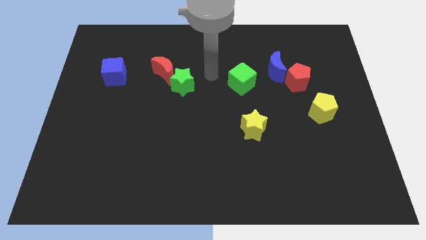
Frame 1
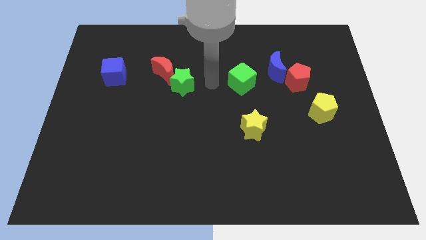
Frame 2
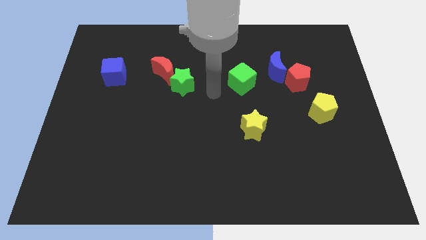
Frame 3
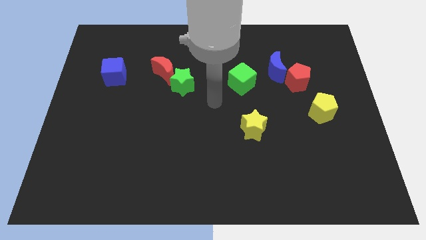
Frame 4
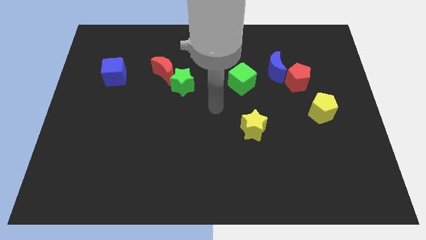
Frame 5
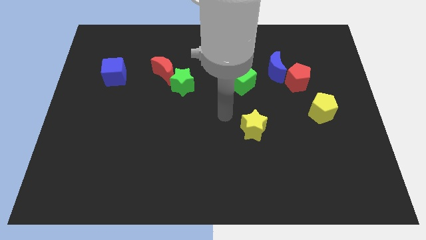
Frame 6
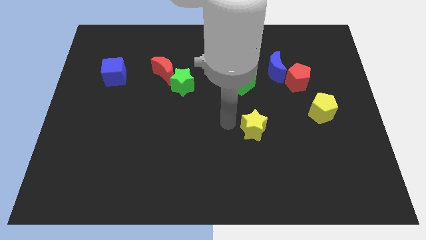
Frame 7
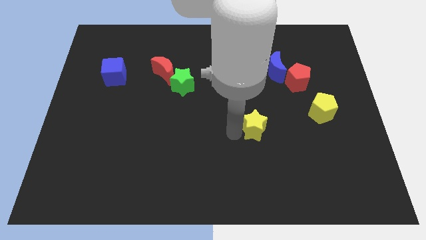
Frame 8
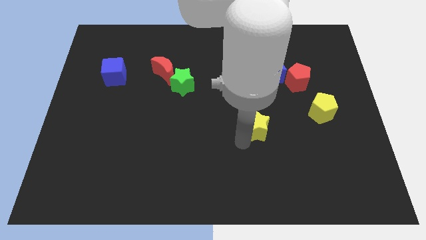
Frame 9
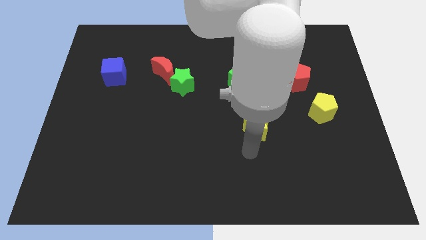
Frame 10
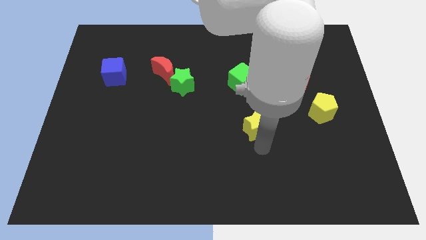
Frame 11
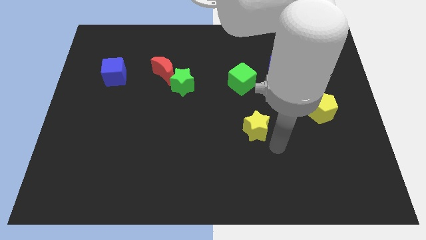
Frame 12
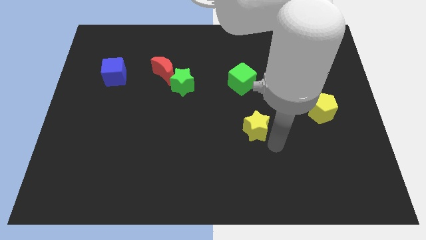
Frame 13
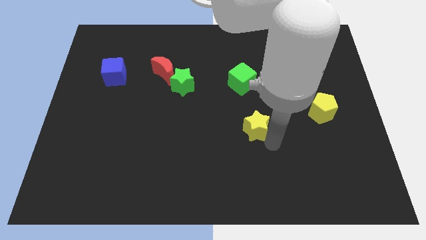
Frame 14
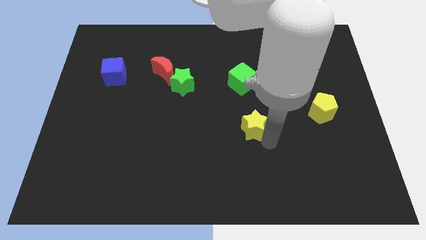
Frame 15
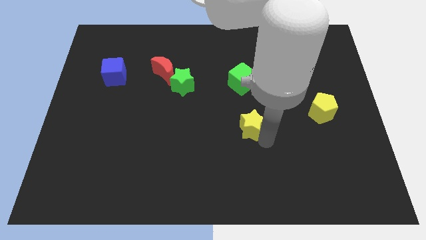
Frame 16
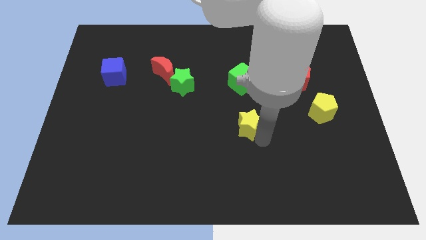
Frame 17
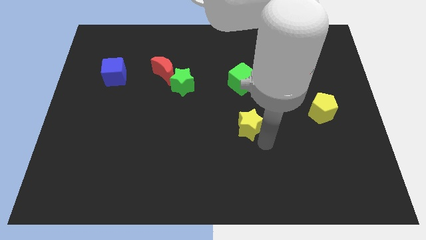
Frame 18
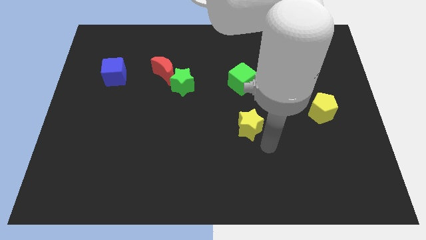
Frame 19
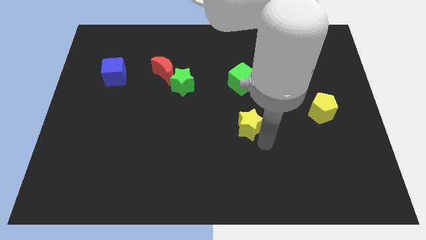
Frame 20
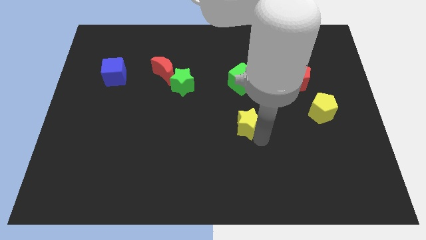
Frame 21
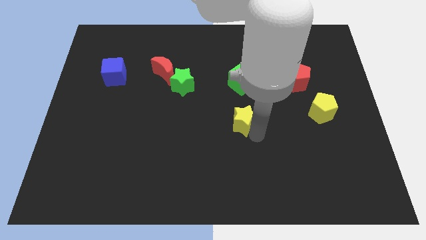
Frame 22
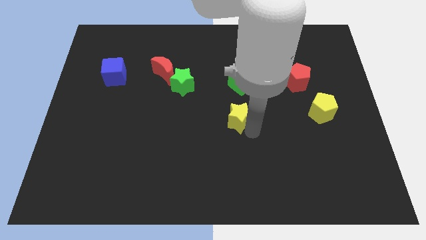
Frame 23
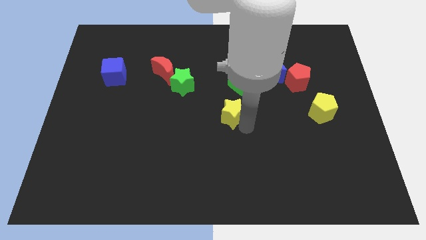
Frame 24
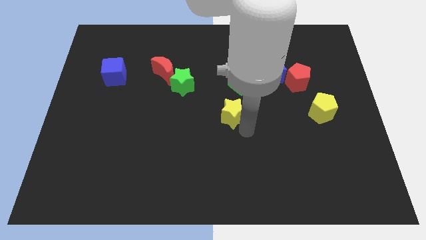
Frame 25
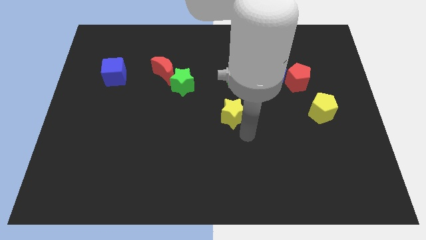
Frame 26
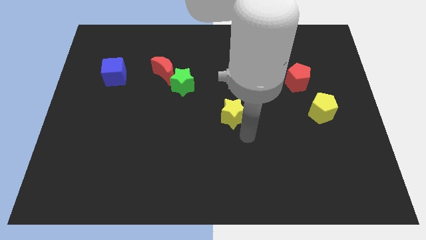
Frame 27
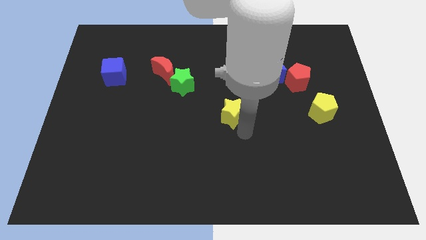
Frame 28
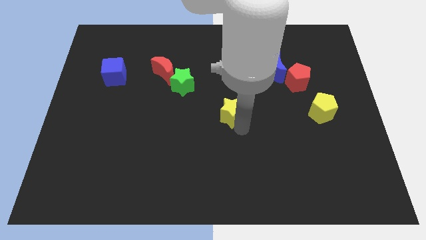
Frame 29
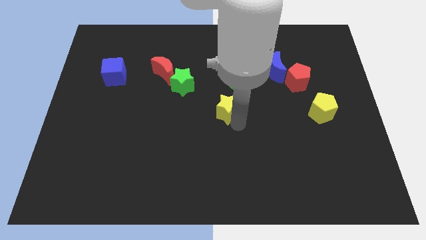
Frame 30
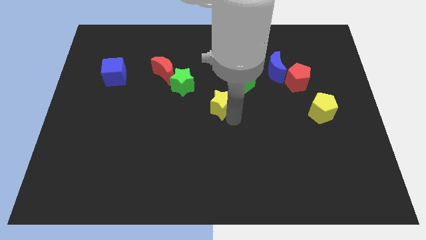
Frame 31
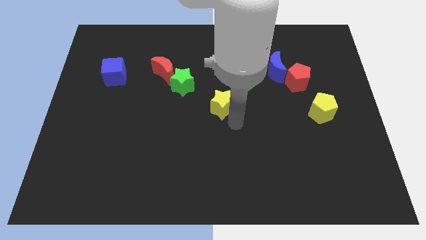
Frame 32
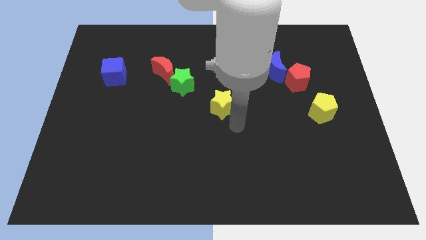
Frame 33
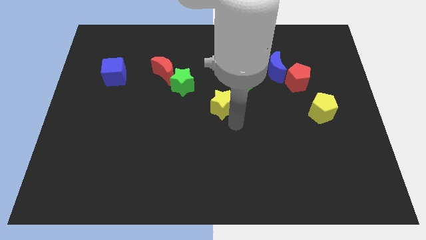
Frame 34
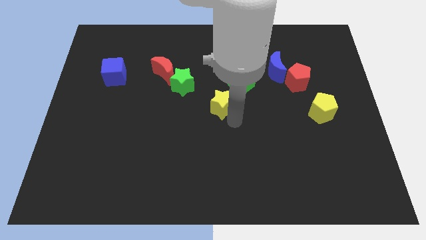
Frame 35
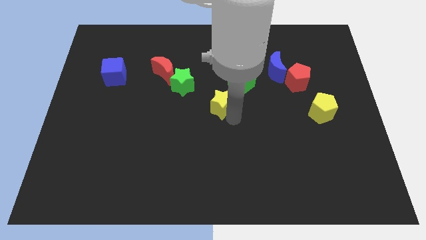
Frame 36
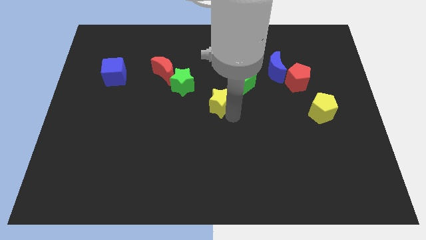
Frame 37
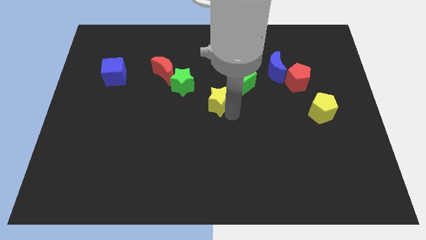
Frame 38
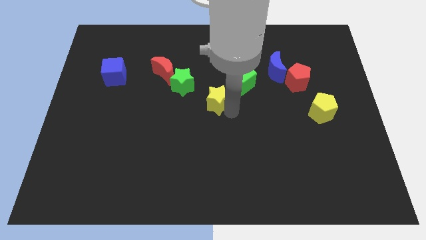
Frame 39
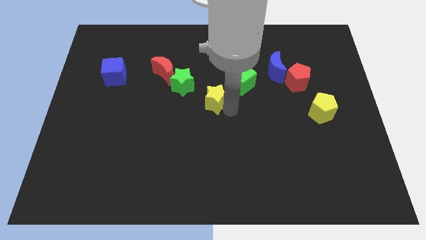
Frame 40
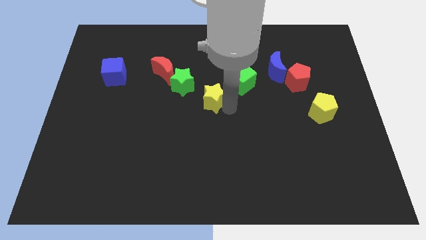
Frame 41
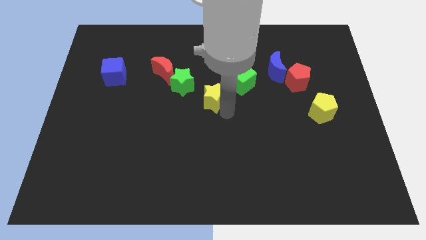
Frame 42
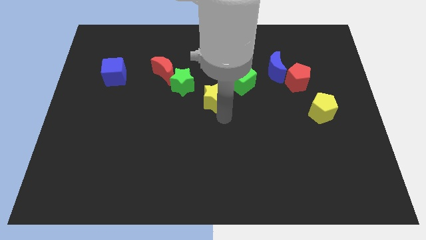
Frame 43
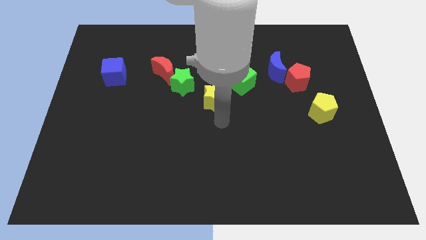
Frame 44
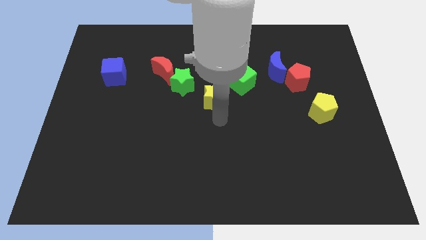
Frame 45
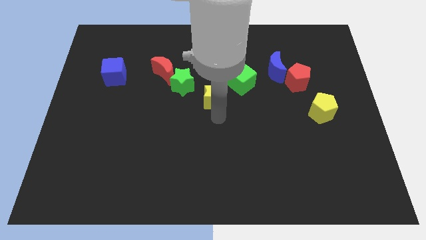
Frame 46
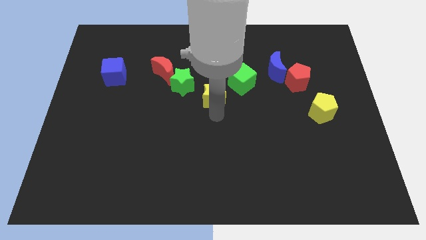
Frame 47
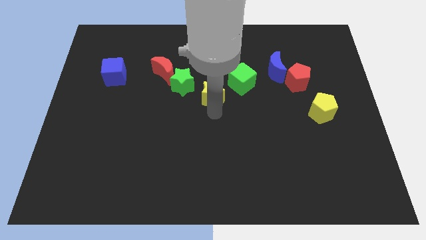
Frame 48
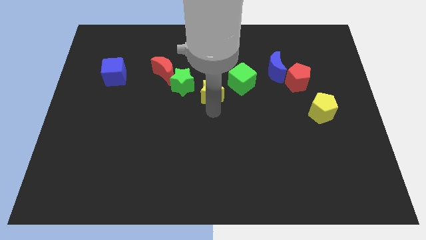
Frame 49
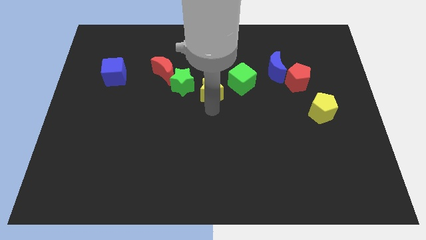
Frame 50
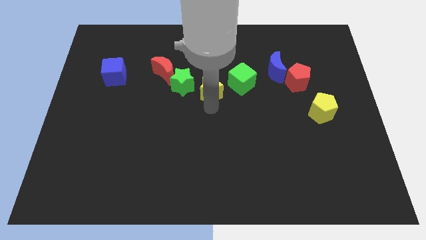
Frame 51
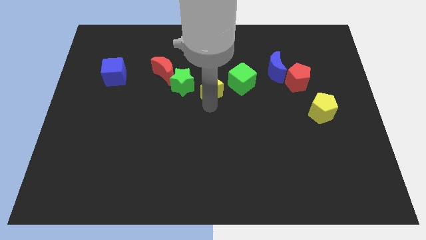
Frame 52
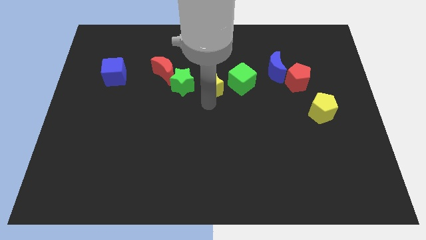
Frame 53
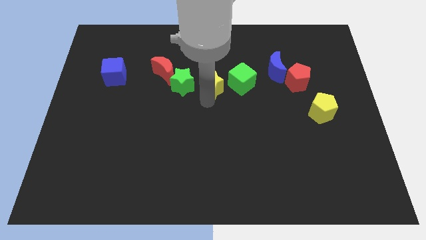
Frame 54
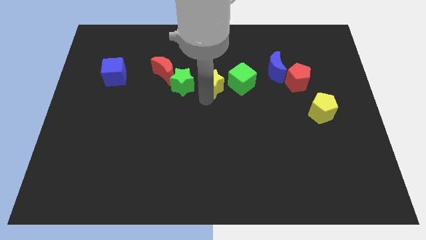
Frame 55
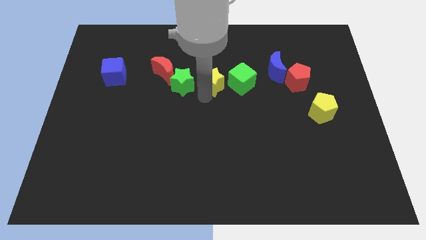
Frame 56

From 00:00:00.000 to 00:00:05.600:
push the yellow star diagonally up and to the right of the green star

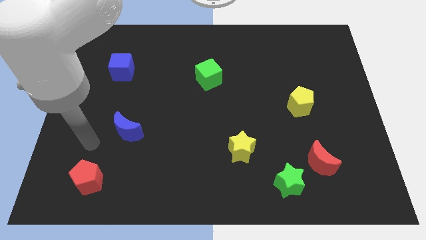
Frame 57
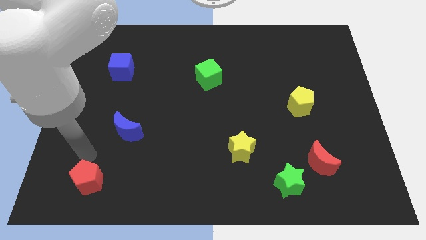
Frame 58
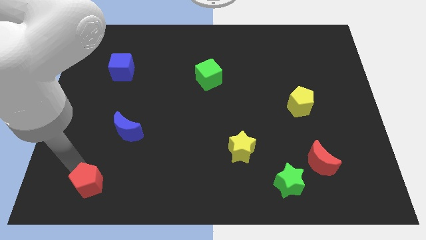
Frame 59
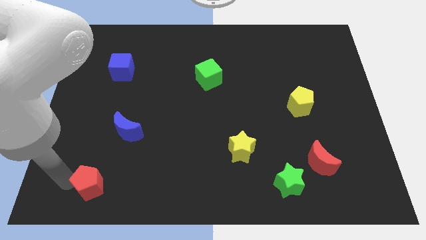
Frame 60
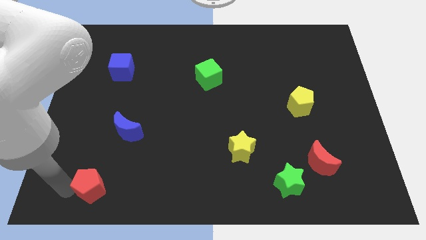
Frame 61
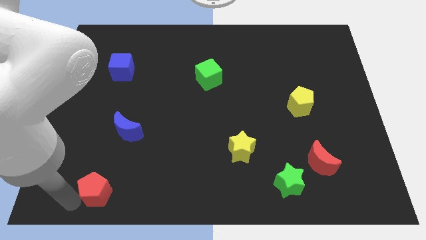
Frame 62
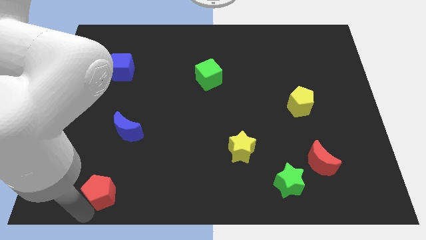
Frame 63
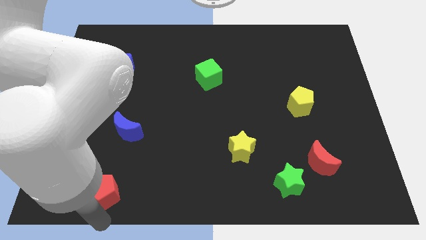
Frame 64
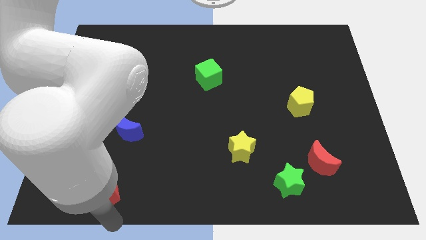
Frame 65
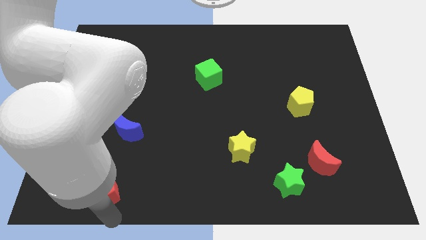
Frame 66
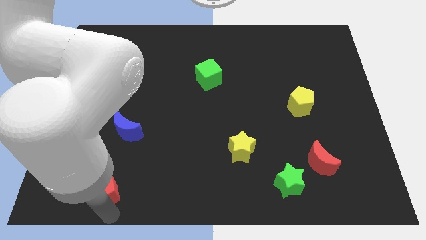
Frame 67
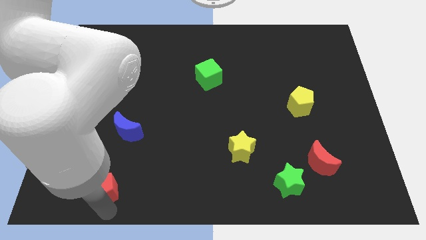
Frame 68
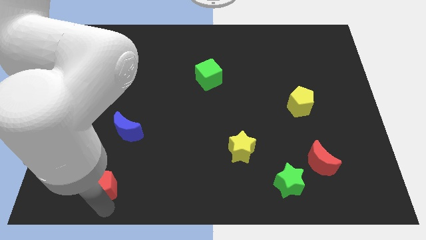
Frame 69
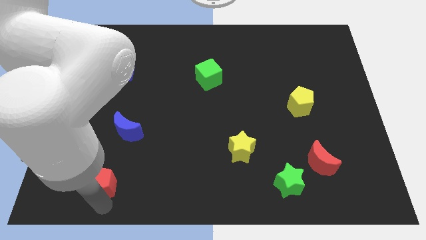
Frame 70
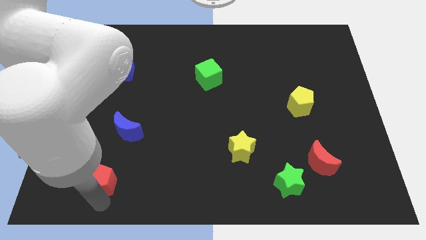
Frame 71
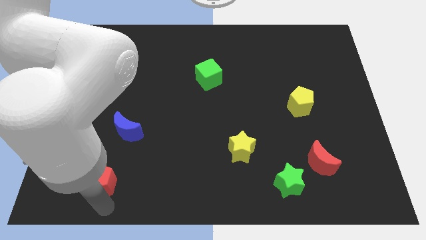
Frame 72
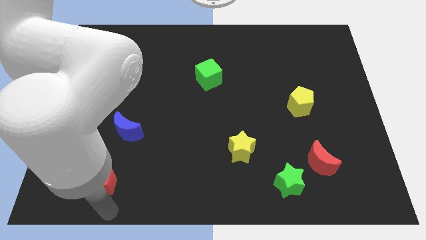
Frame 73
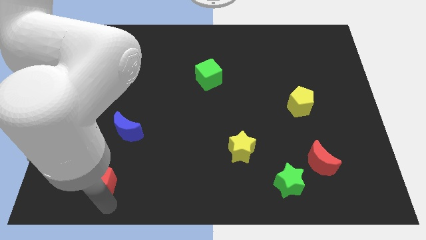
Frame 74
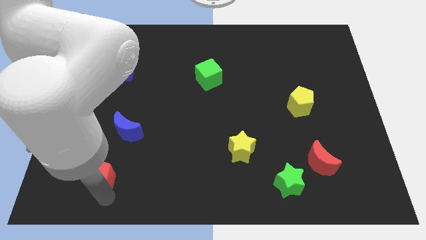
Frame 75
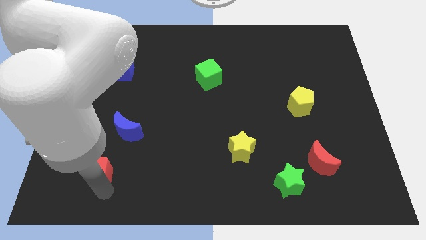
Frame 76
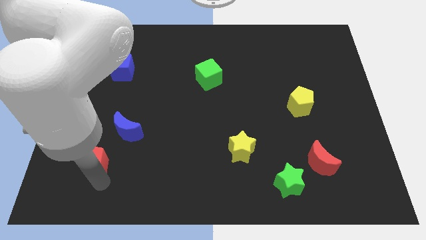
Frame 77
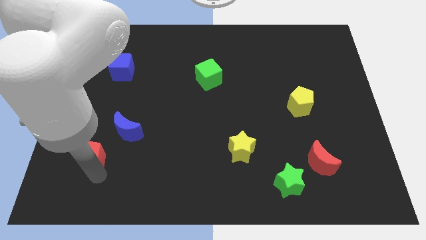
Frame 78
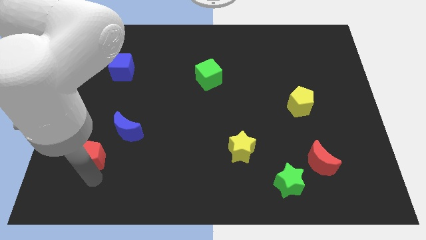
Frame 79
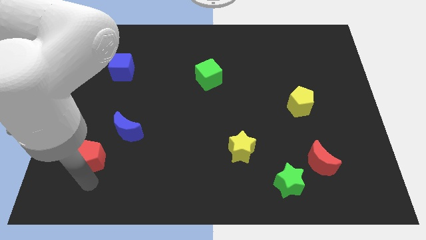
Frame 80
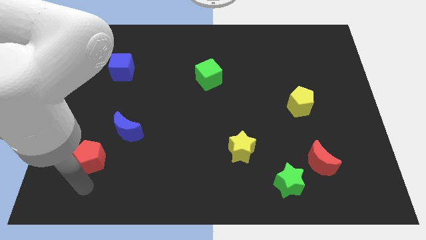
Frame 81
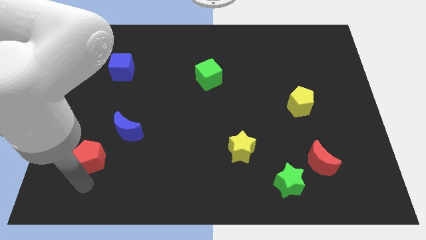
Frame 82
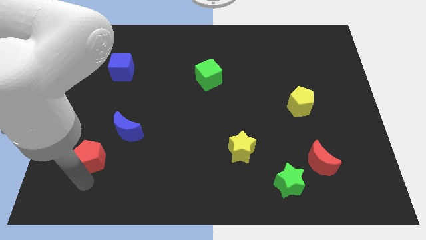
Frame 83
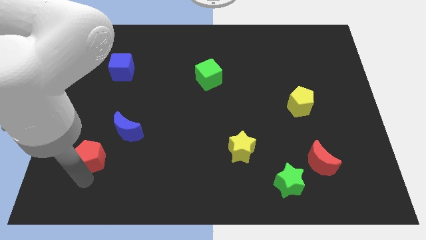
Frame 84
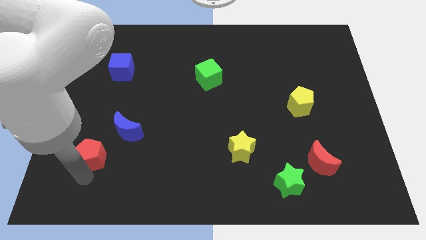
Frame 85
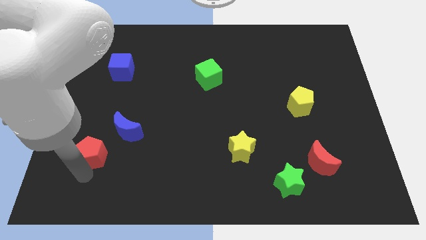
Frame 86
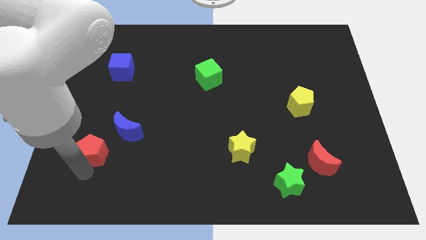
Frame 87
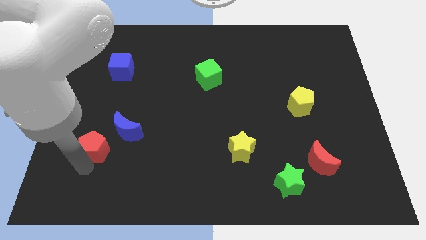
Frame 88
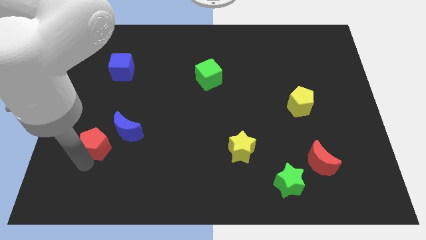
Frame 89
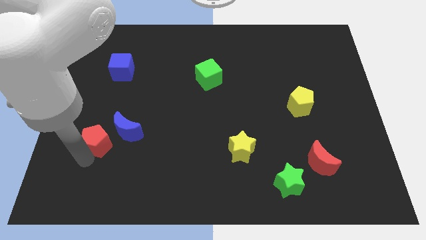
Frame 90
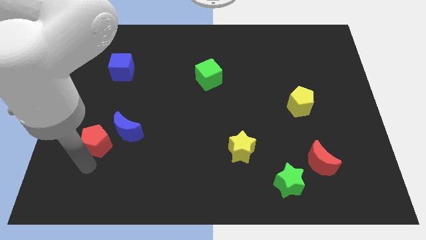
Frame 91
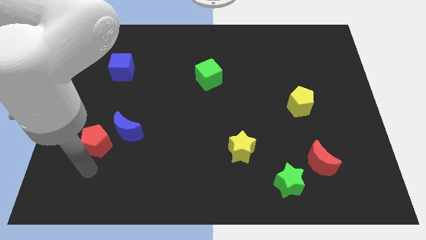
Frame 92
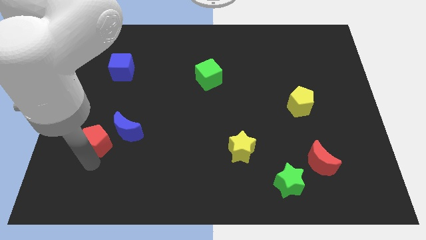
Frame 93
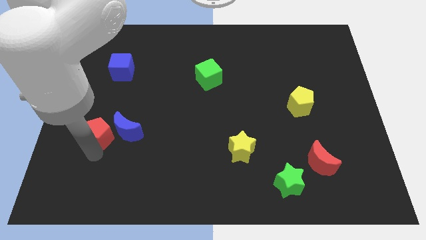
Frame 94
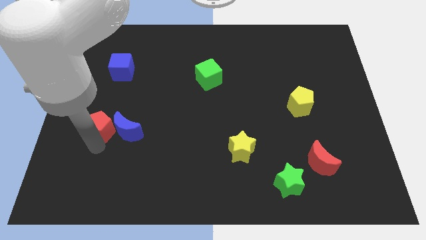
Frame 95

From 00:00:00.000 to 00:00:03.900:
move the red pentagon diagonally up and to the left of the blue moon
